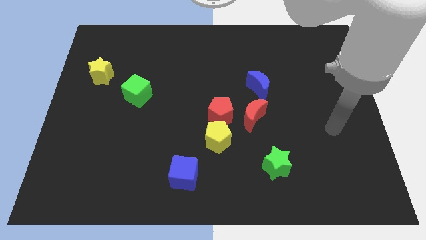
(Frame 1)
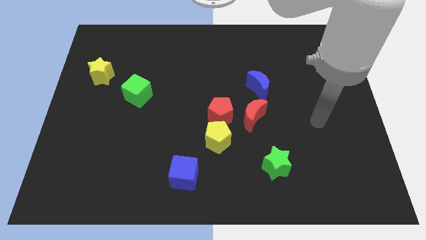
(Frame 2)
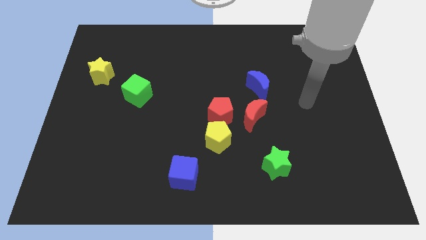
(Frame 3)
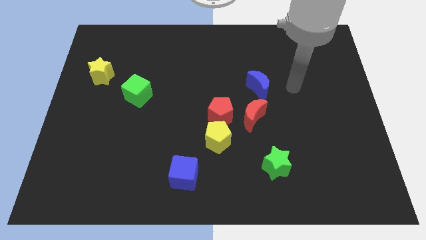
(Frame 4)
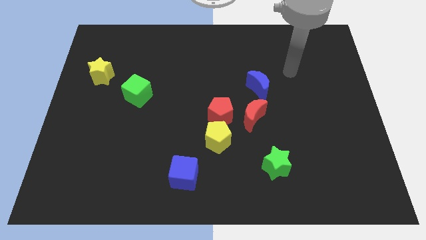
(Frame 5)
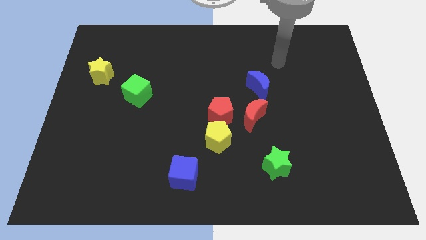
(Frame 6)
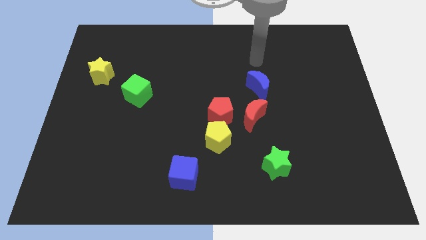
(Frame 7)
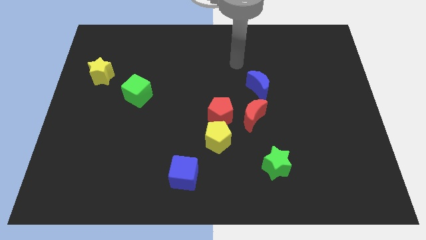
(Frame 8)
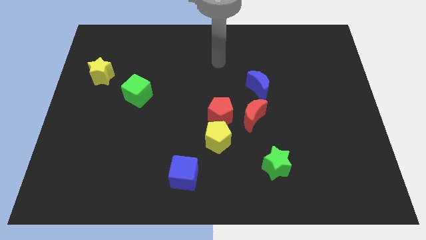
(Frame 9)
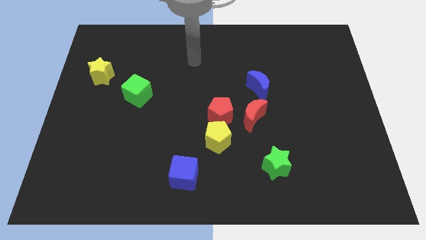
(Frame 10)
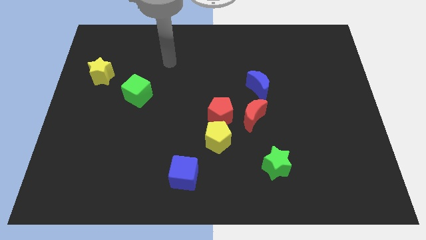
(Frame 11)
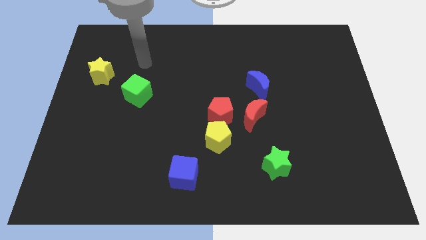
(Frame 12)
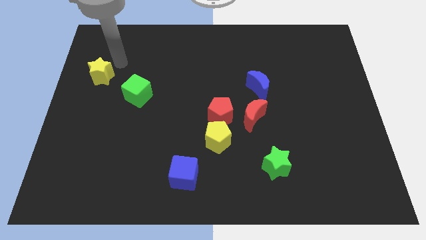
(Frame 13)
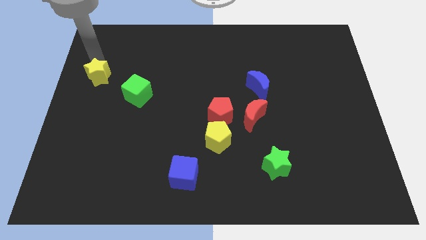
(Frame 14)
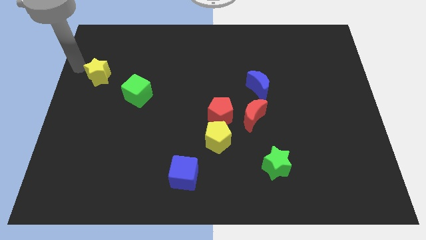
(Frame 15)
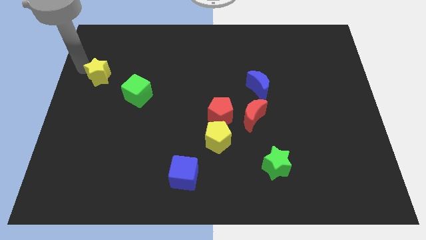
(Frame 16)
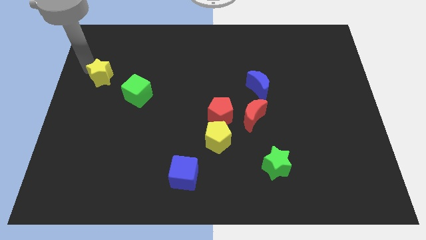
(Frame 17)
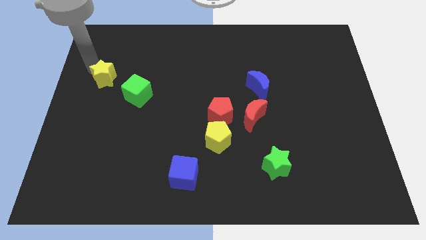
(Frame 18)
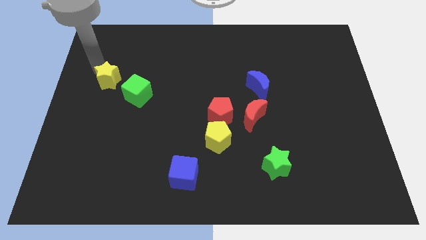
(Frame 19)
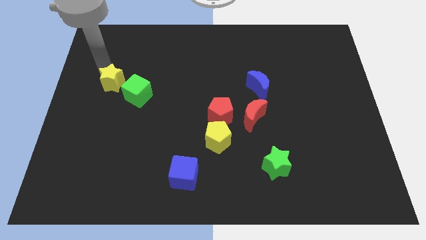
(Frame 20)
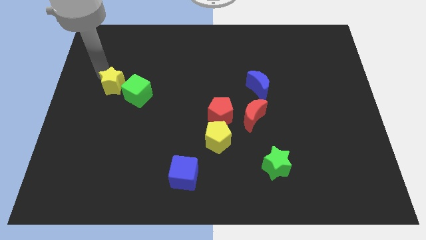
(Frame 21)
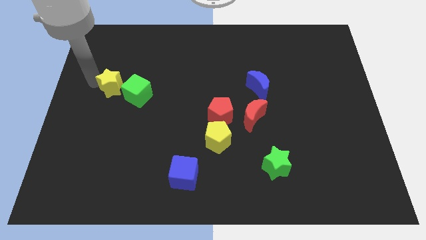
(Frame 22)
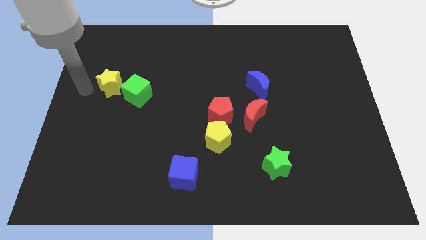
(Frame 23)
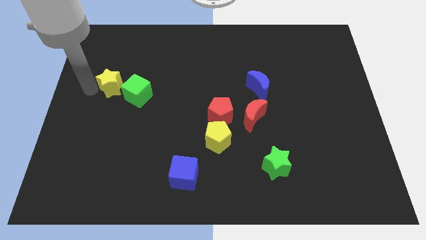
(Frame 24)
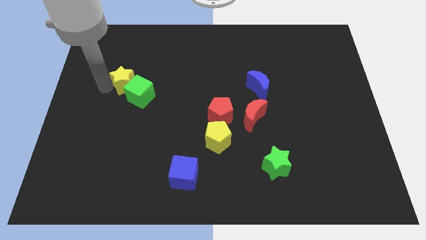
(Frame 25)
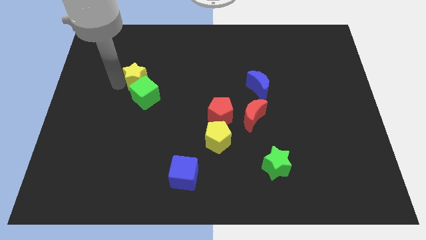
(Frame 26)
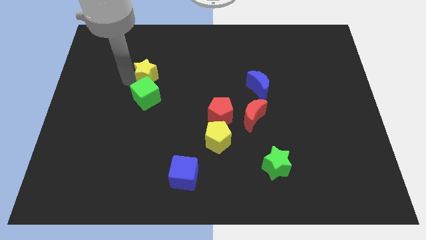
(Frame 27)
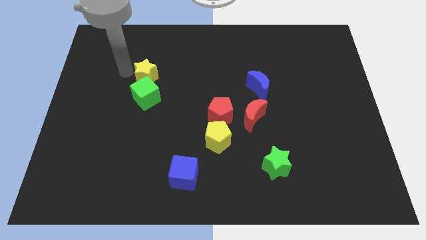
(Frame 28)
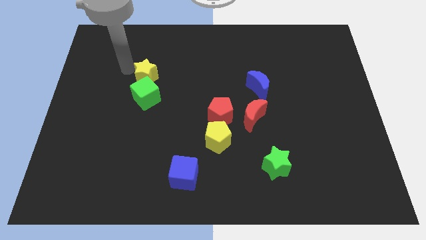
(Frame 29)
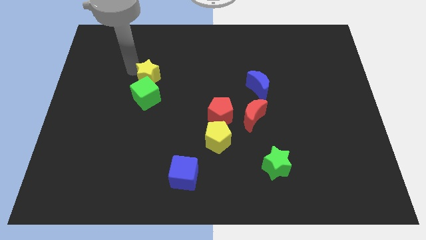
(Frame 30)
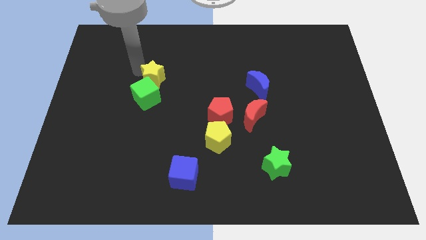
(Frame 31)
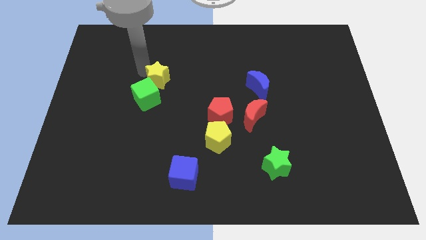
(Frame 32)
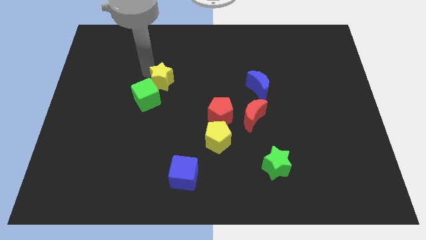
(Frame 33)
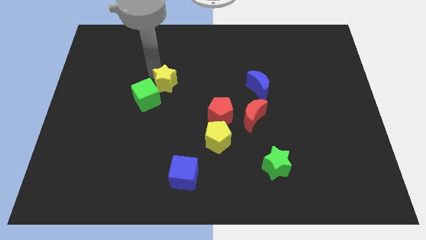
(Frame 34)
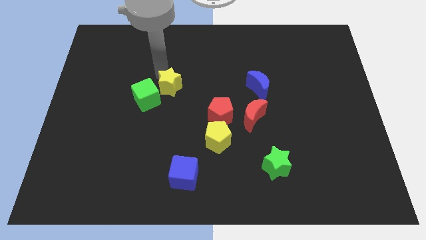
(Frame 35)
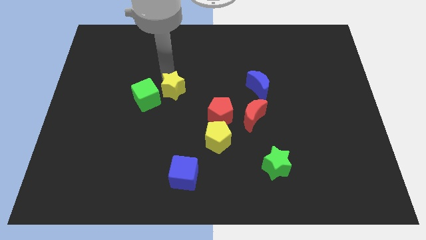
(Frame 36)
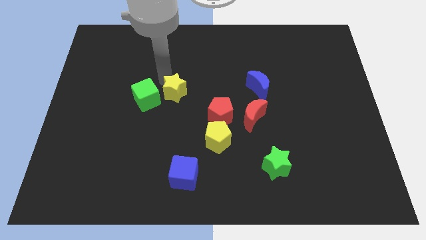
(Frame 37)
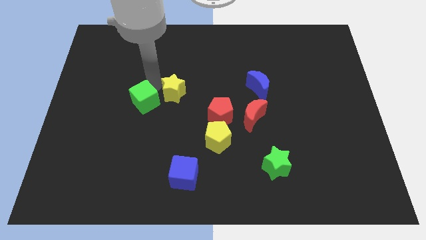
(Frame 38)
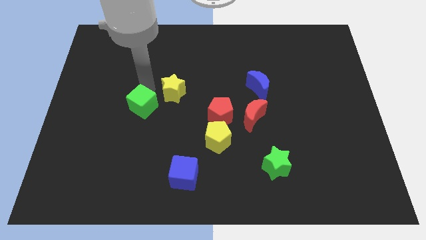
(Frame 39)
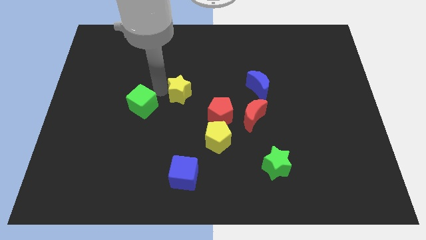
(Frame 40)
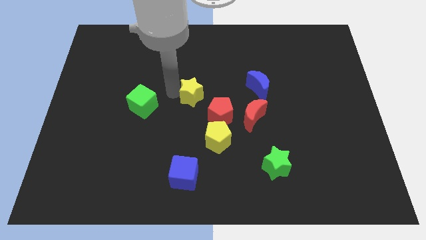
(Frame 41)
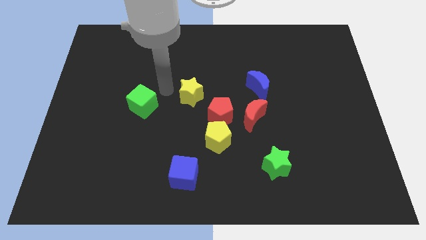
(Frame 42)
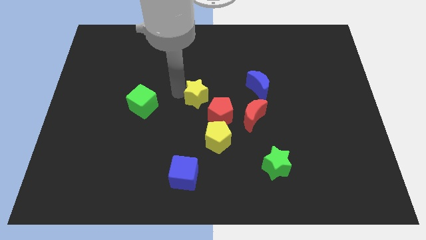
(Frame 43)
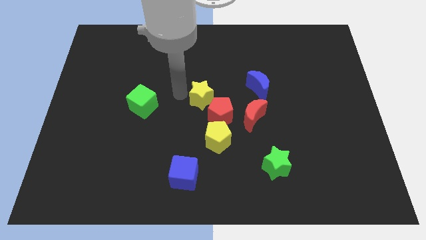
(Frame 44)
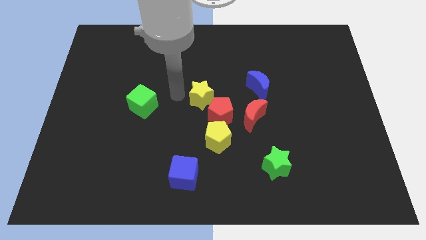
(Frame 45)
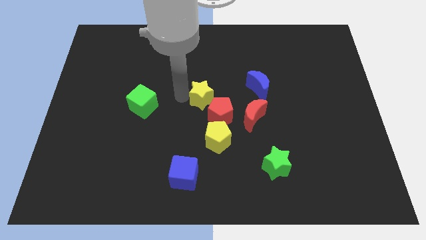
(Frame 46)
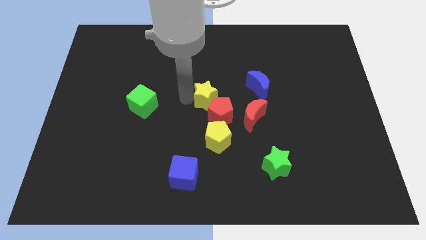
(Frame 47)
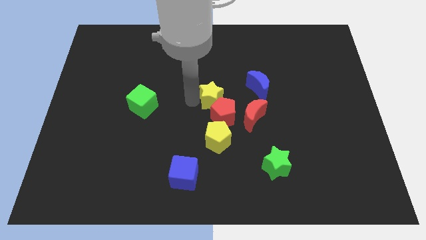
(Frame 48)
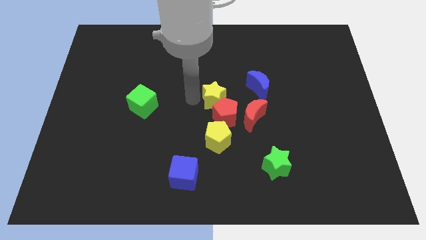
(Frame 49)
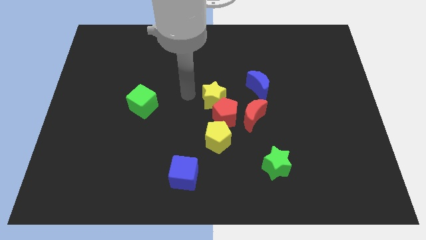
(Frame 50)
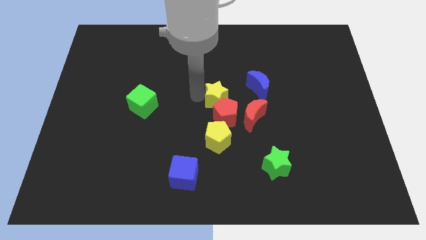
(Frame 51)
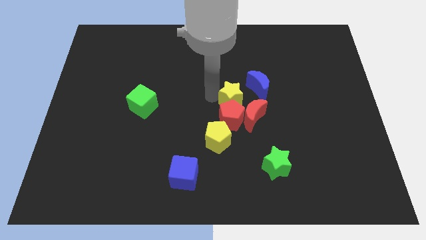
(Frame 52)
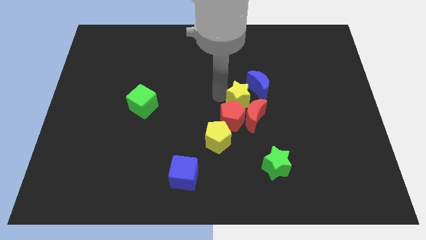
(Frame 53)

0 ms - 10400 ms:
move the yellow star to the red moon
